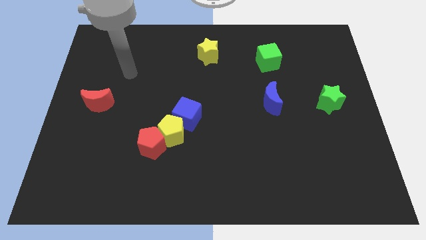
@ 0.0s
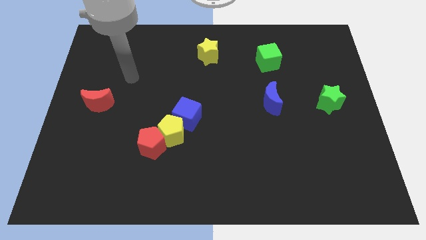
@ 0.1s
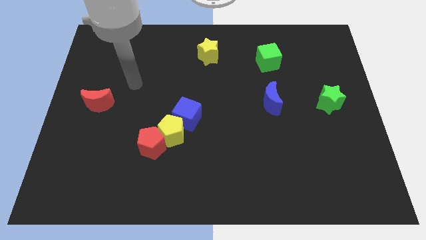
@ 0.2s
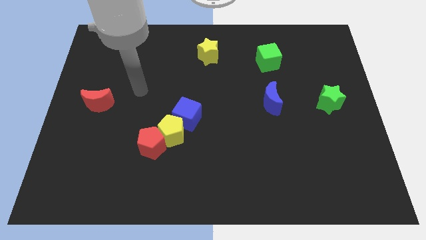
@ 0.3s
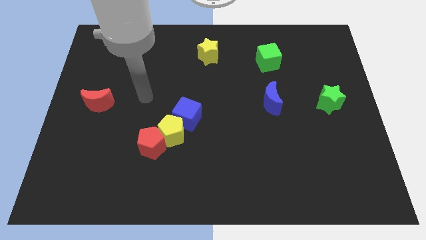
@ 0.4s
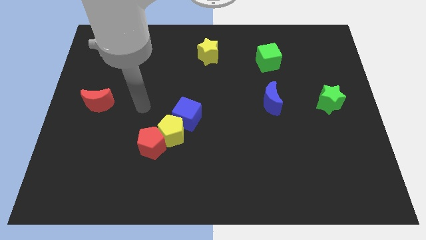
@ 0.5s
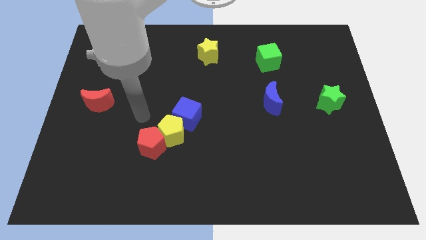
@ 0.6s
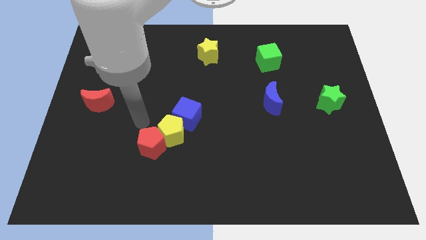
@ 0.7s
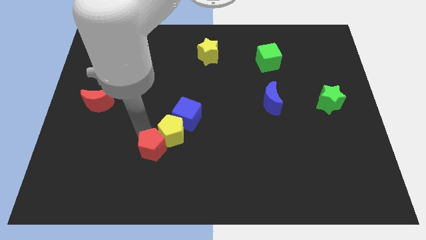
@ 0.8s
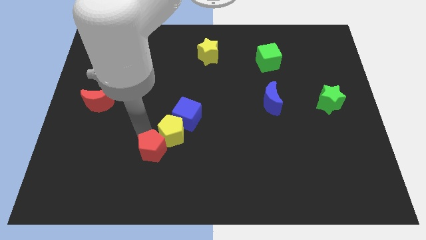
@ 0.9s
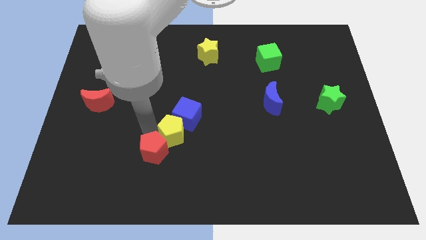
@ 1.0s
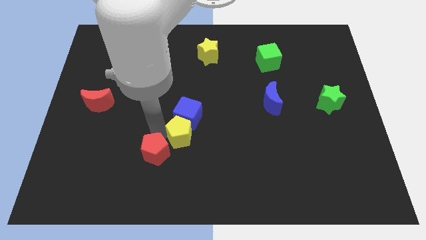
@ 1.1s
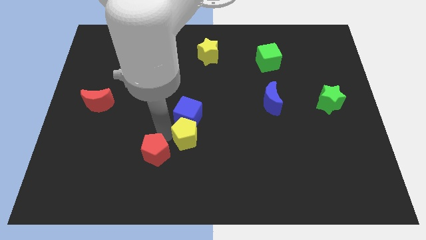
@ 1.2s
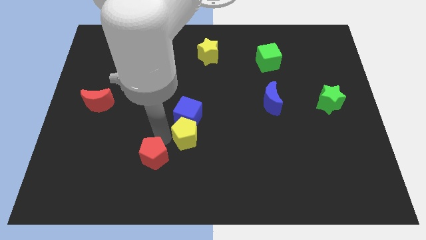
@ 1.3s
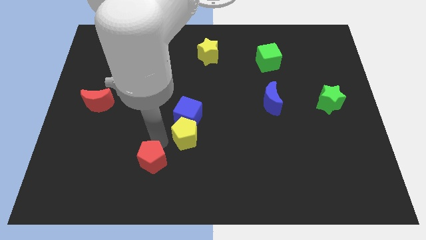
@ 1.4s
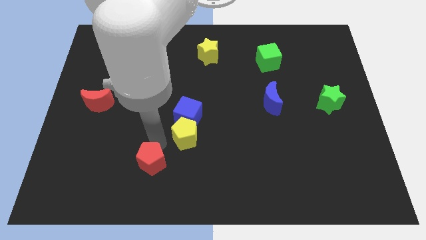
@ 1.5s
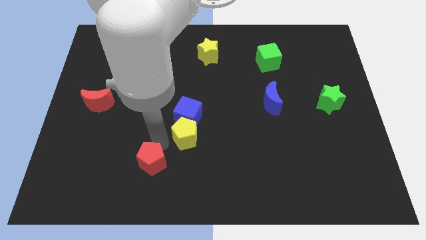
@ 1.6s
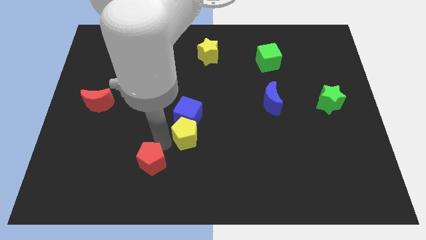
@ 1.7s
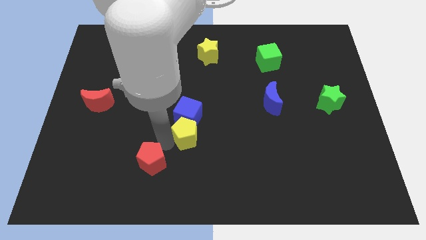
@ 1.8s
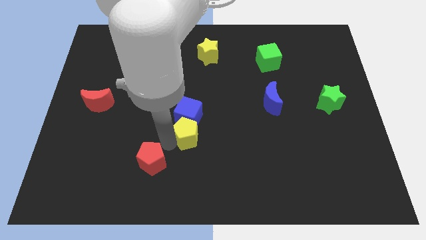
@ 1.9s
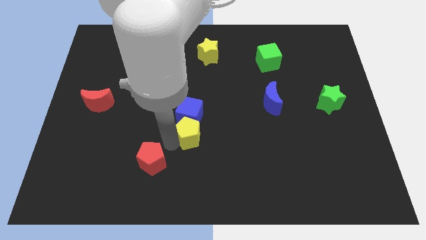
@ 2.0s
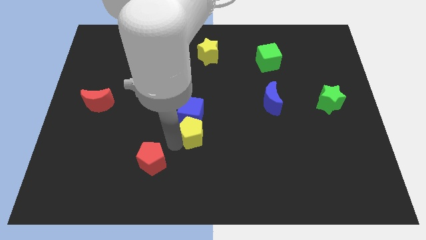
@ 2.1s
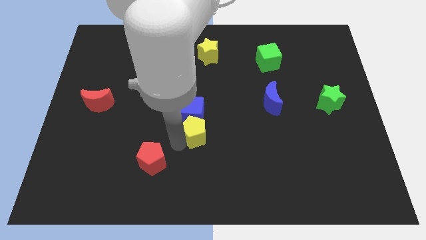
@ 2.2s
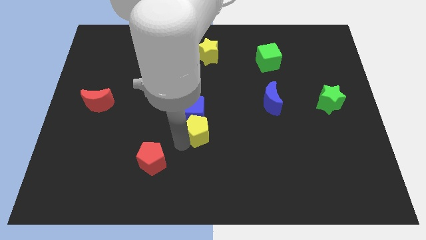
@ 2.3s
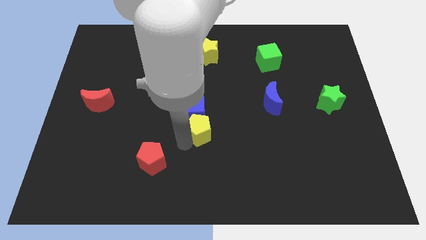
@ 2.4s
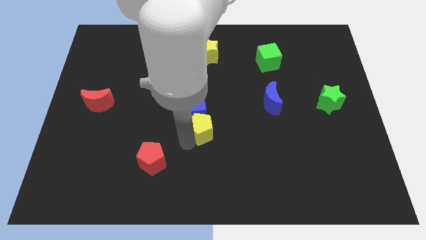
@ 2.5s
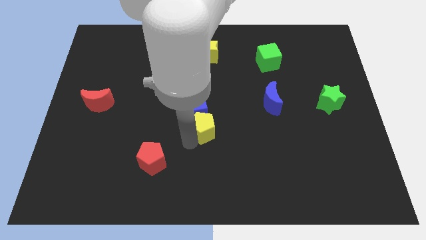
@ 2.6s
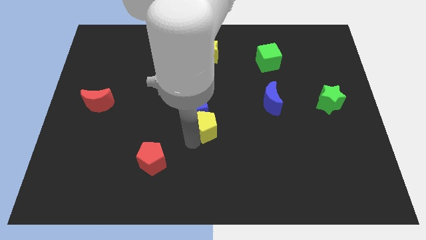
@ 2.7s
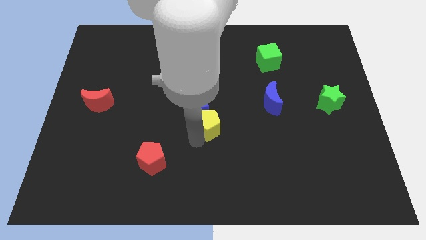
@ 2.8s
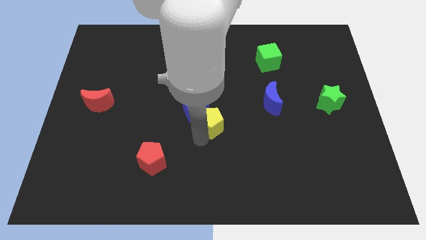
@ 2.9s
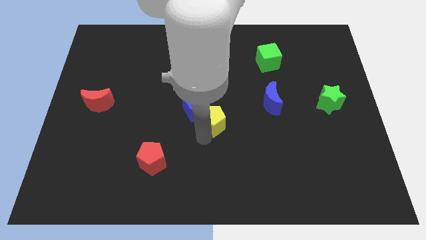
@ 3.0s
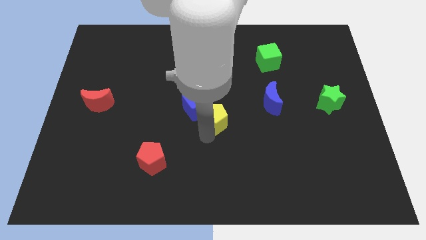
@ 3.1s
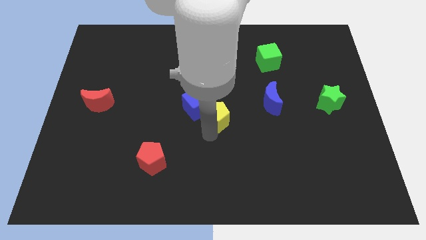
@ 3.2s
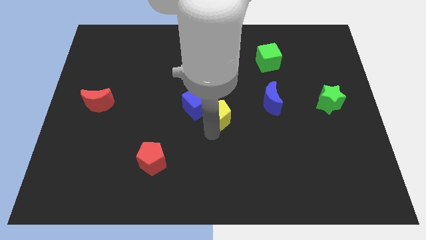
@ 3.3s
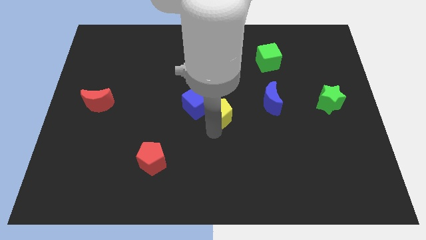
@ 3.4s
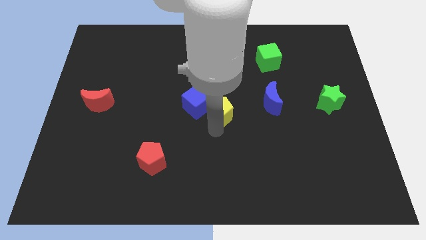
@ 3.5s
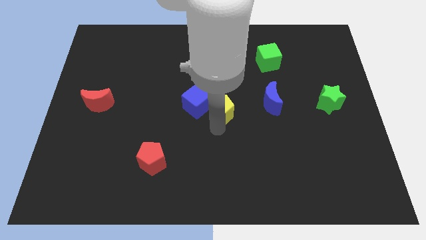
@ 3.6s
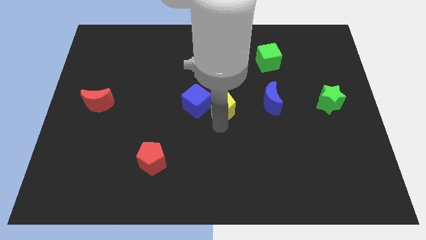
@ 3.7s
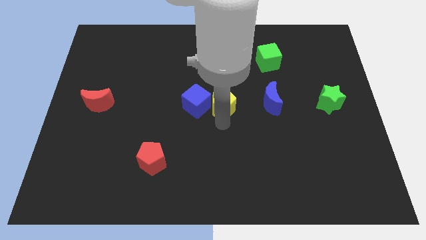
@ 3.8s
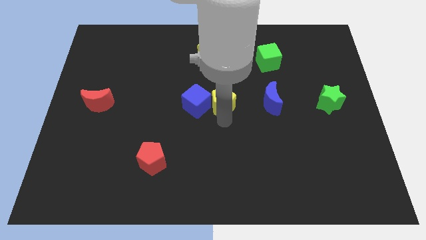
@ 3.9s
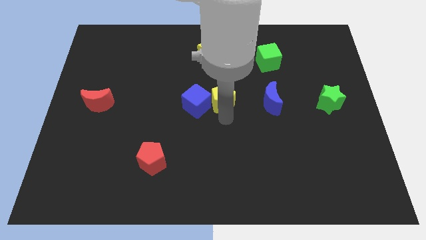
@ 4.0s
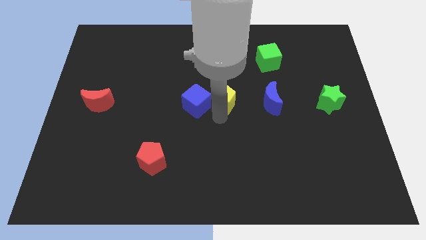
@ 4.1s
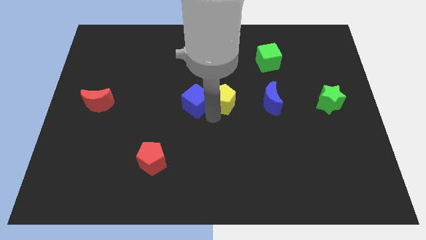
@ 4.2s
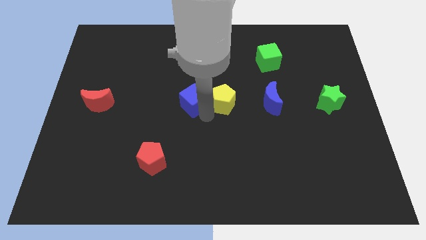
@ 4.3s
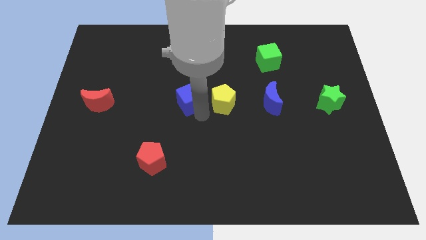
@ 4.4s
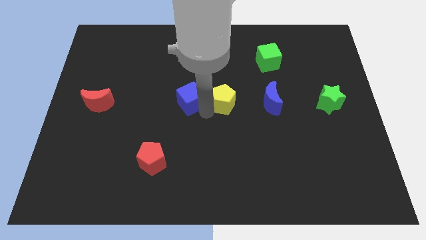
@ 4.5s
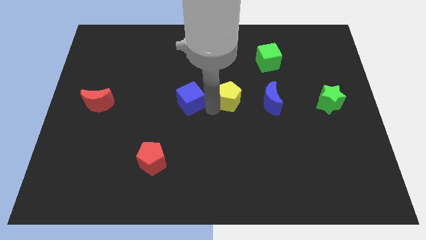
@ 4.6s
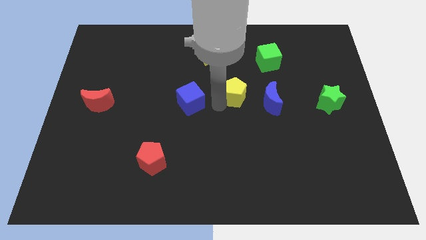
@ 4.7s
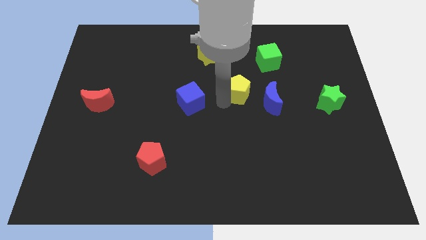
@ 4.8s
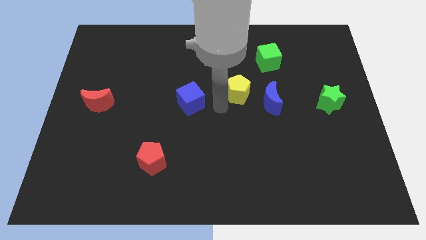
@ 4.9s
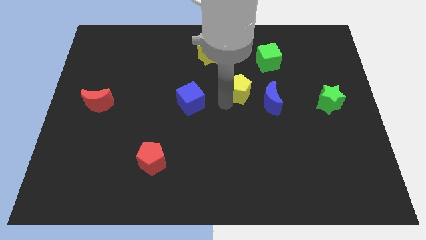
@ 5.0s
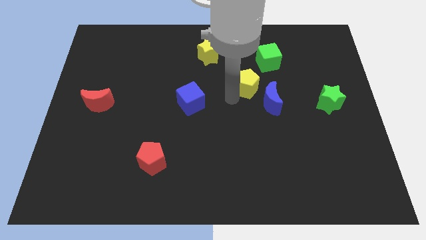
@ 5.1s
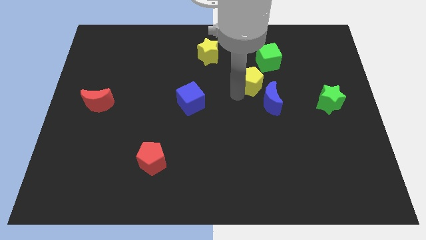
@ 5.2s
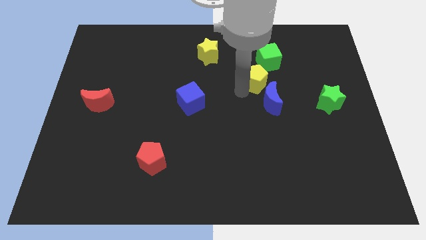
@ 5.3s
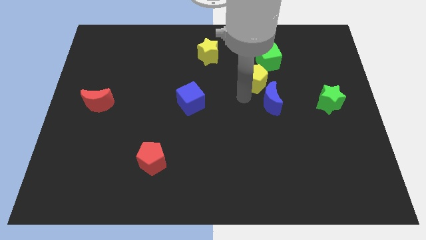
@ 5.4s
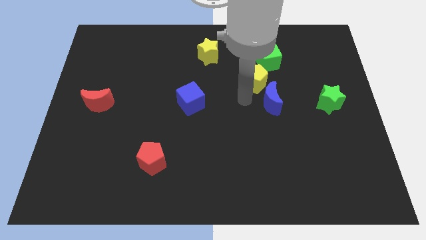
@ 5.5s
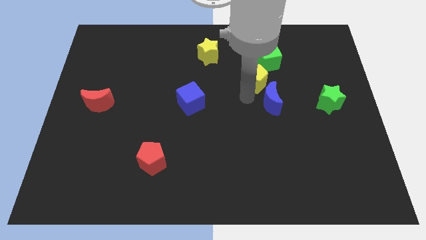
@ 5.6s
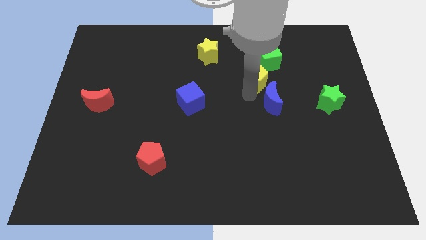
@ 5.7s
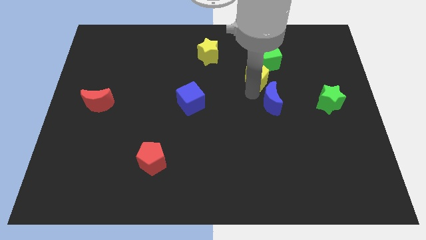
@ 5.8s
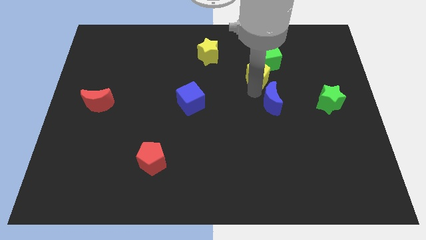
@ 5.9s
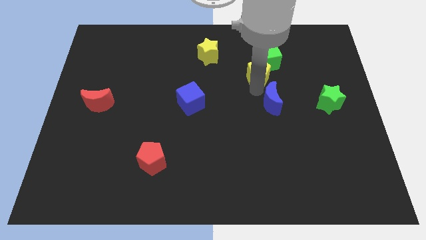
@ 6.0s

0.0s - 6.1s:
move the yellow pentagon close to the green cube
